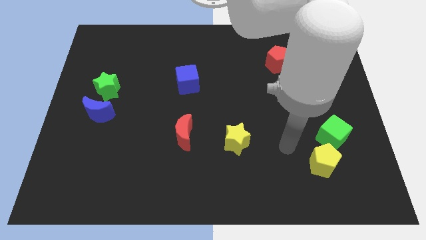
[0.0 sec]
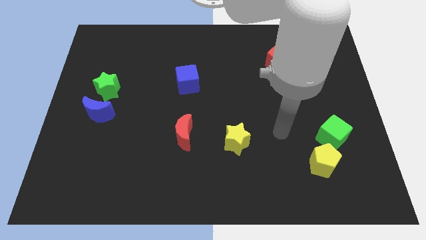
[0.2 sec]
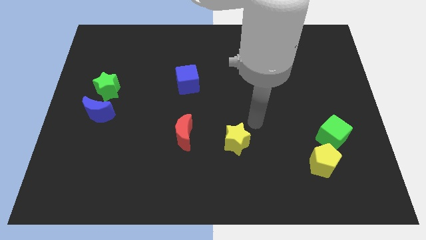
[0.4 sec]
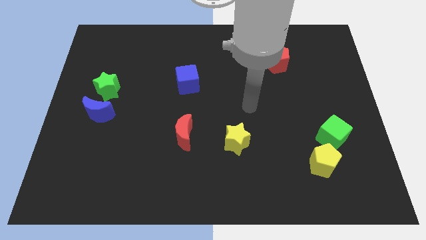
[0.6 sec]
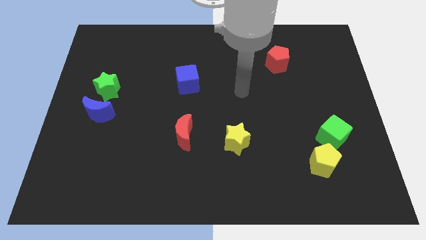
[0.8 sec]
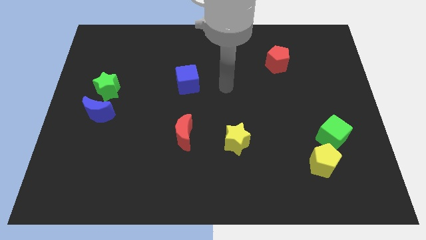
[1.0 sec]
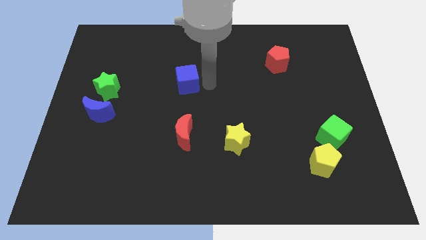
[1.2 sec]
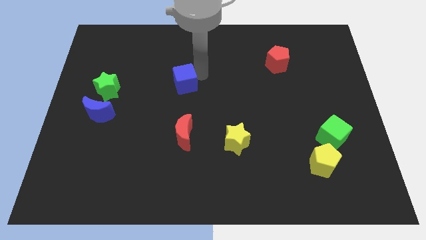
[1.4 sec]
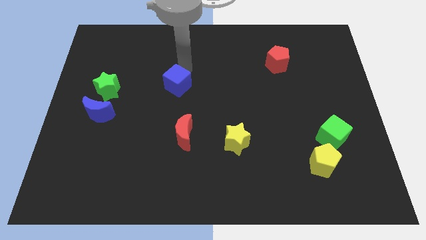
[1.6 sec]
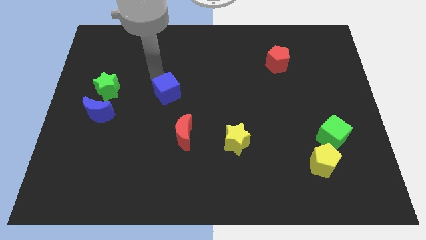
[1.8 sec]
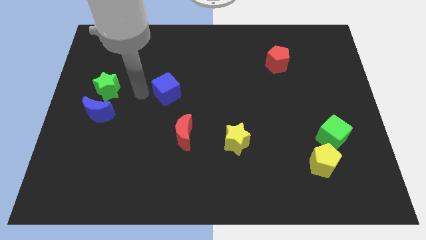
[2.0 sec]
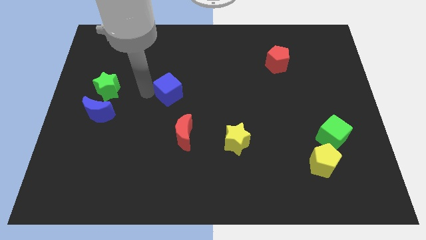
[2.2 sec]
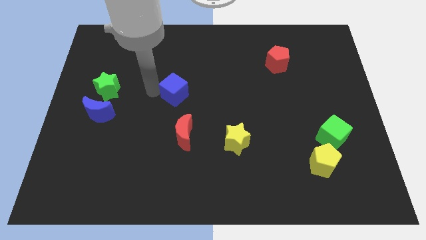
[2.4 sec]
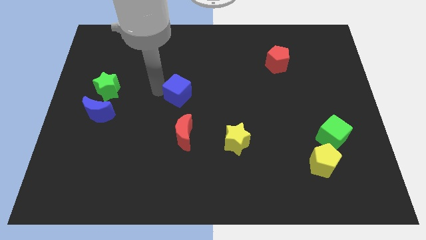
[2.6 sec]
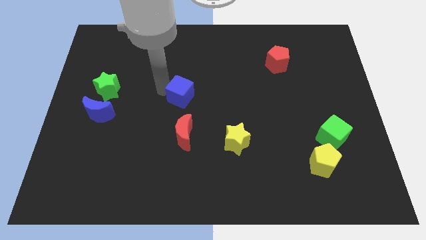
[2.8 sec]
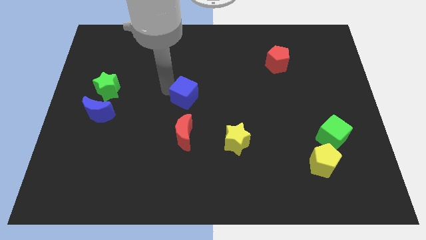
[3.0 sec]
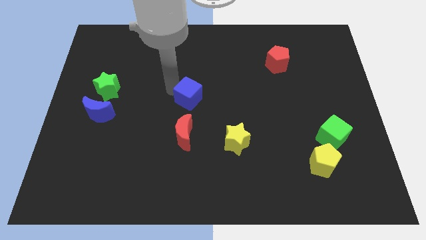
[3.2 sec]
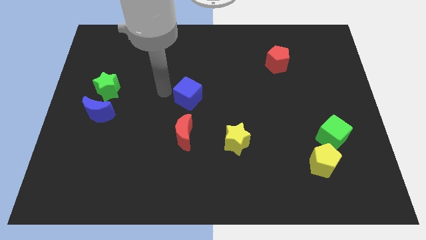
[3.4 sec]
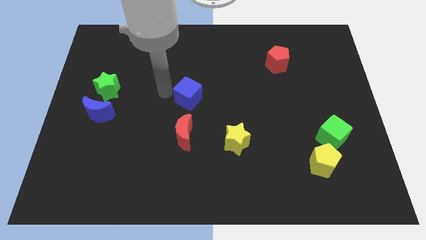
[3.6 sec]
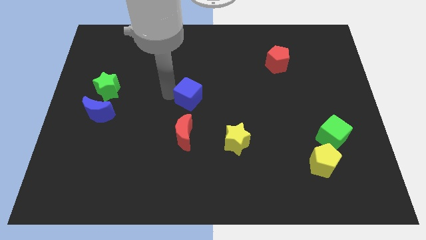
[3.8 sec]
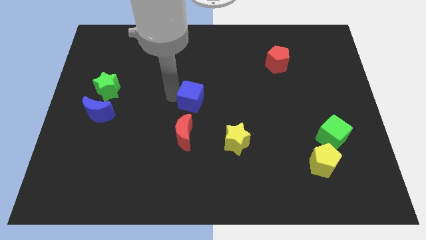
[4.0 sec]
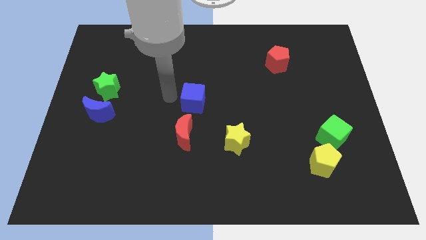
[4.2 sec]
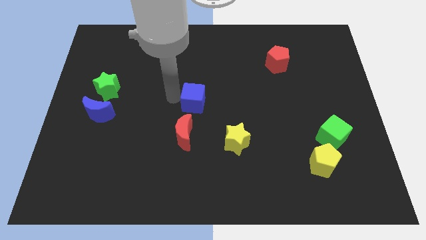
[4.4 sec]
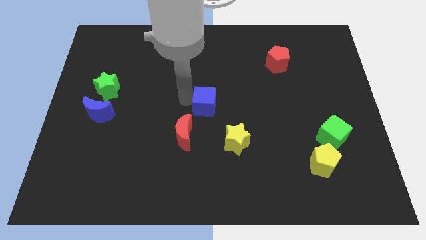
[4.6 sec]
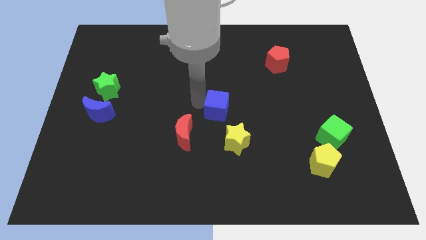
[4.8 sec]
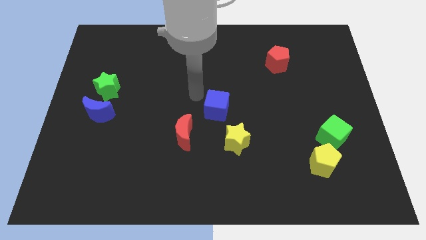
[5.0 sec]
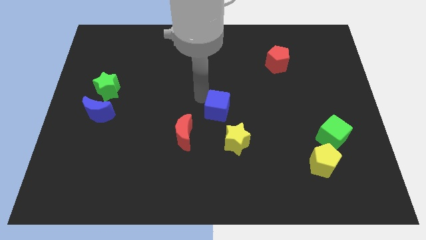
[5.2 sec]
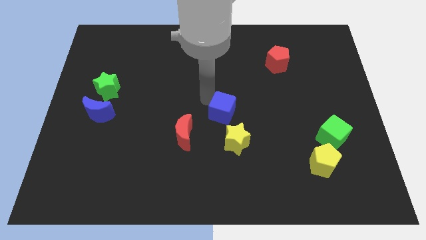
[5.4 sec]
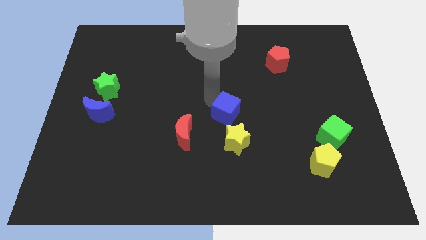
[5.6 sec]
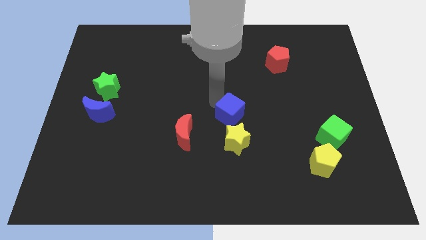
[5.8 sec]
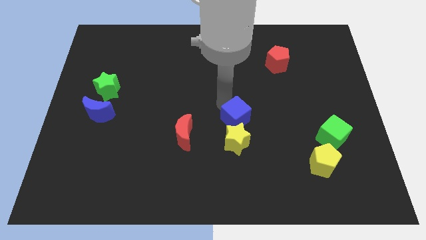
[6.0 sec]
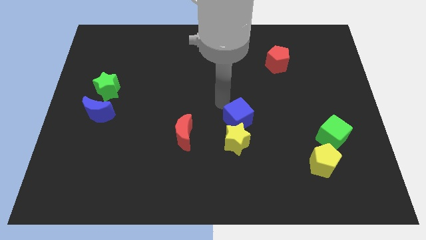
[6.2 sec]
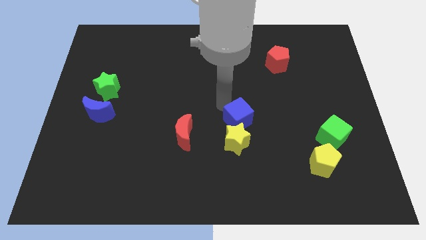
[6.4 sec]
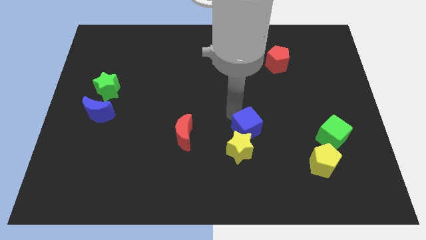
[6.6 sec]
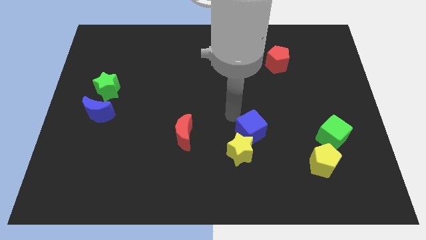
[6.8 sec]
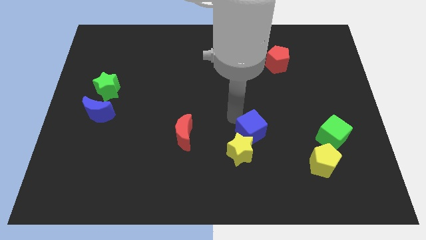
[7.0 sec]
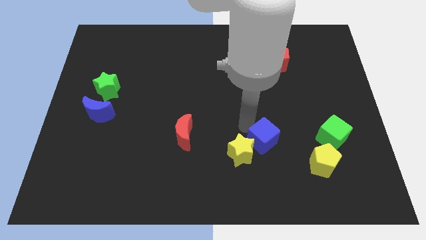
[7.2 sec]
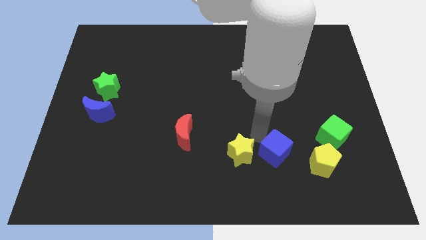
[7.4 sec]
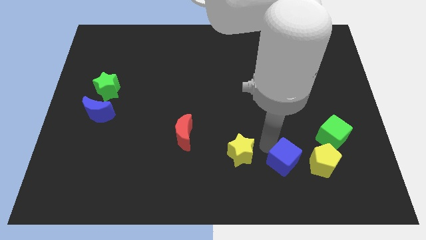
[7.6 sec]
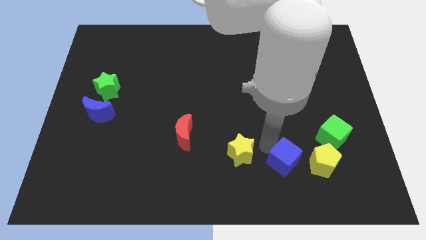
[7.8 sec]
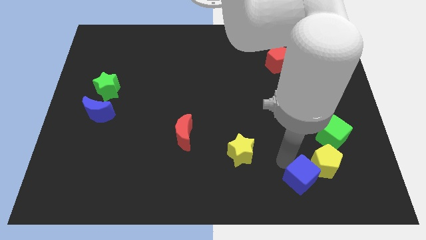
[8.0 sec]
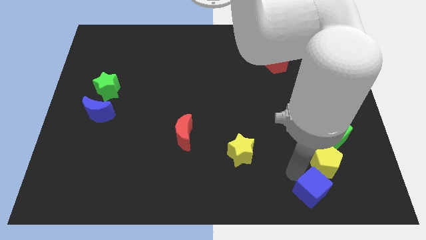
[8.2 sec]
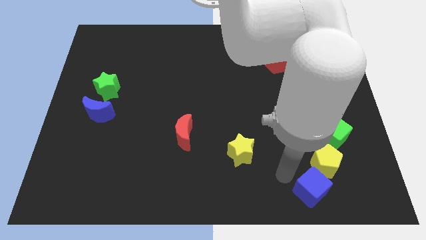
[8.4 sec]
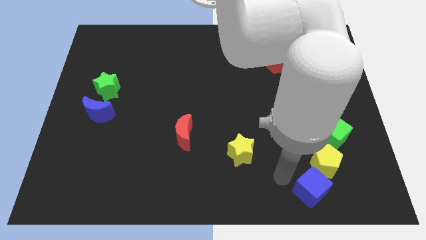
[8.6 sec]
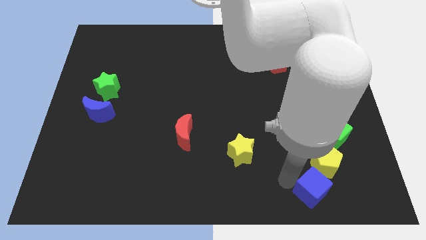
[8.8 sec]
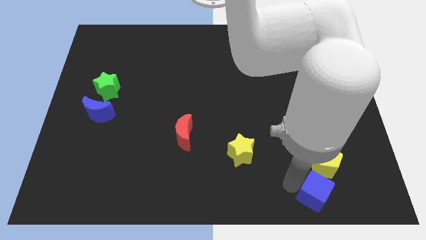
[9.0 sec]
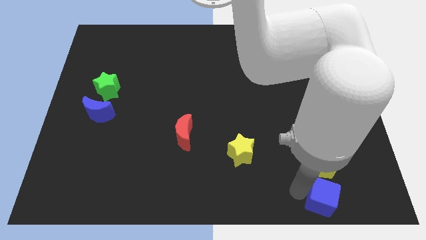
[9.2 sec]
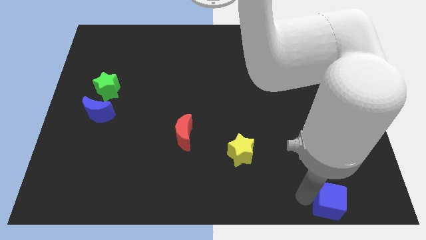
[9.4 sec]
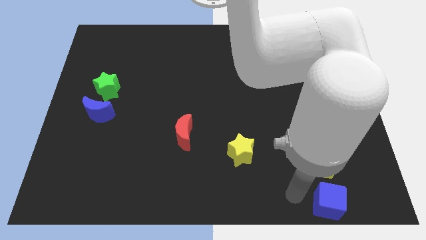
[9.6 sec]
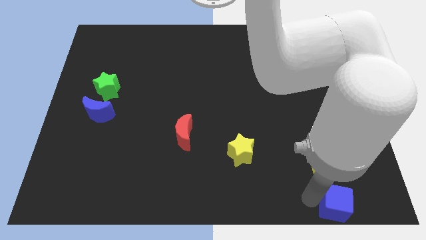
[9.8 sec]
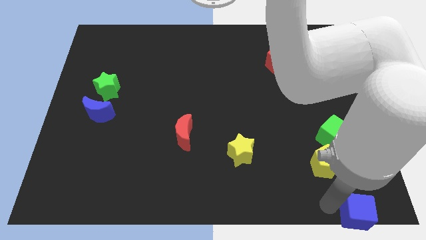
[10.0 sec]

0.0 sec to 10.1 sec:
put the blue cube to the lower right corner

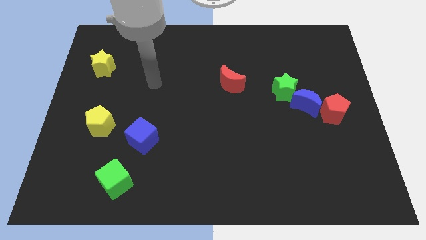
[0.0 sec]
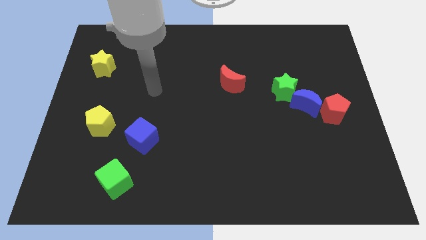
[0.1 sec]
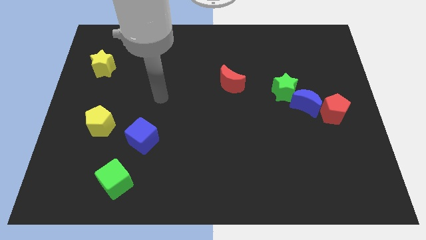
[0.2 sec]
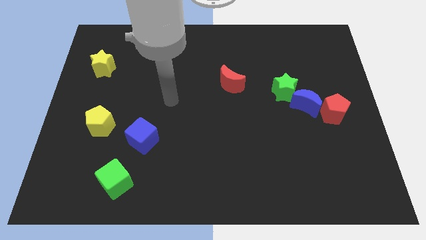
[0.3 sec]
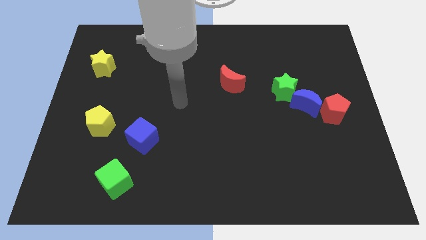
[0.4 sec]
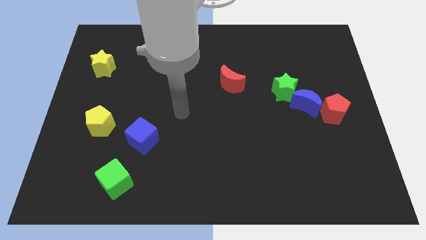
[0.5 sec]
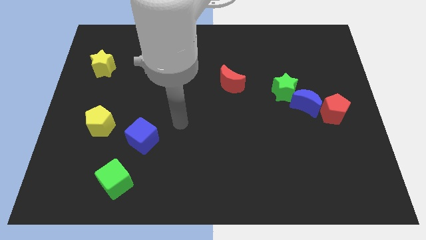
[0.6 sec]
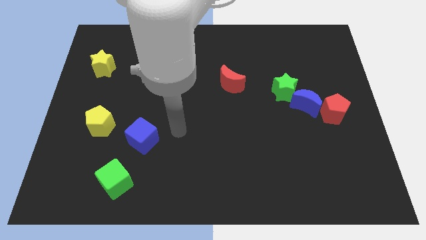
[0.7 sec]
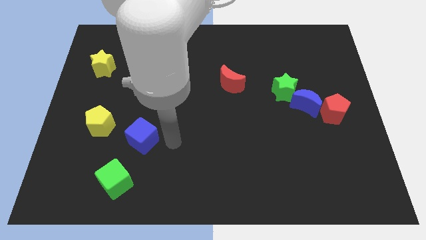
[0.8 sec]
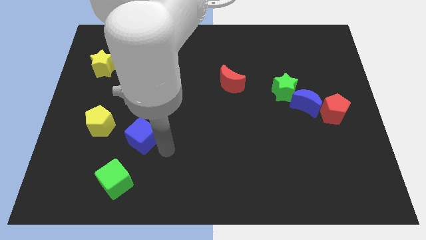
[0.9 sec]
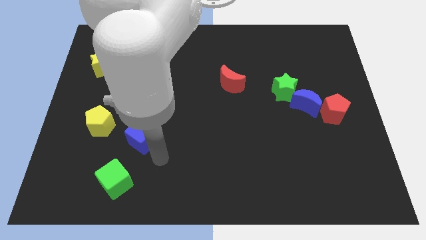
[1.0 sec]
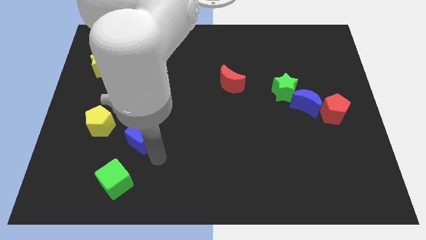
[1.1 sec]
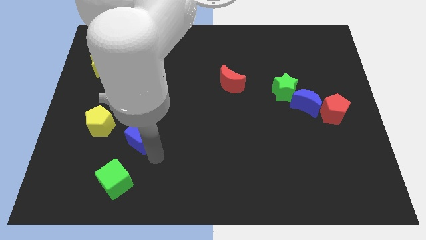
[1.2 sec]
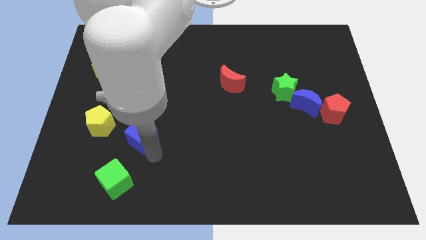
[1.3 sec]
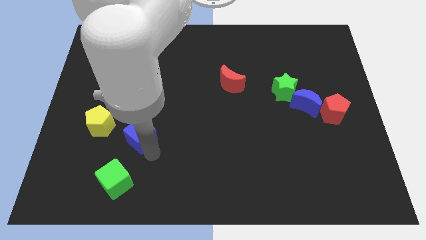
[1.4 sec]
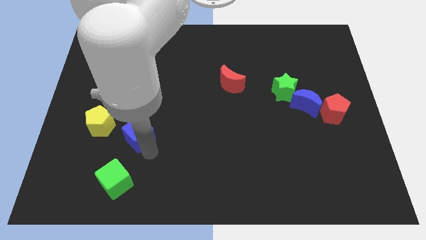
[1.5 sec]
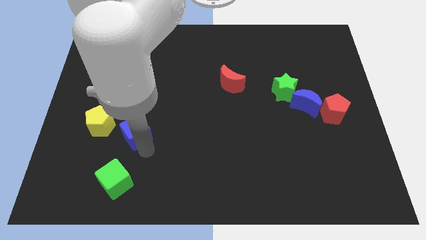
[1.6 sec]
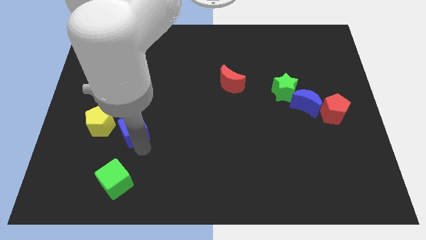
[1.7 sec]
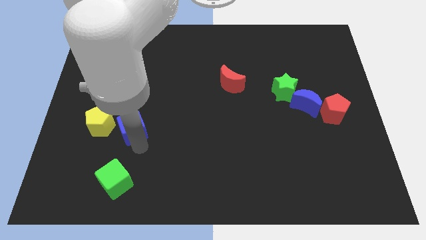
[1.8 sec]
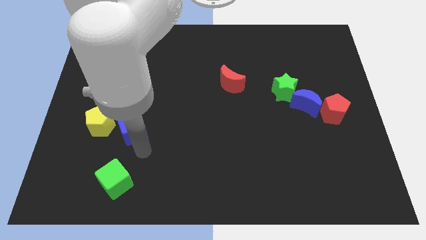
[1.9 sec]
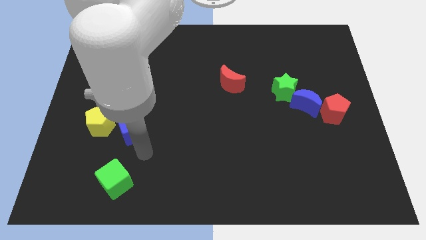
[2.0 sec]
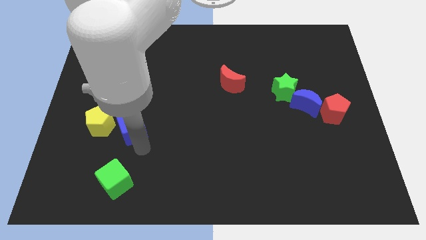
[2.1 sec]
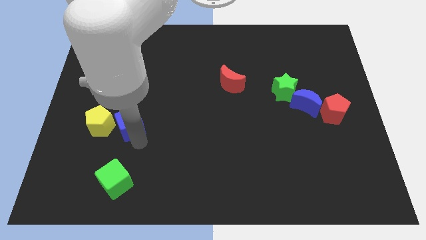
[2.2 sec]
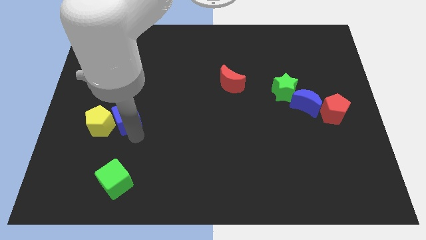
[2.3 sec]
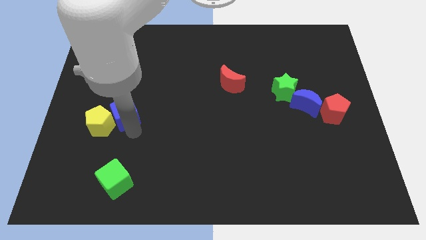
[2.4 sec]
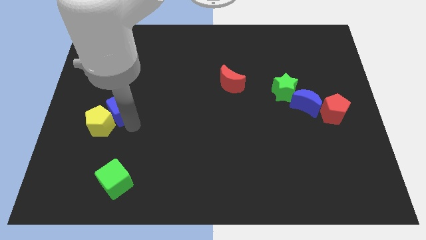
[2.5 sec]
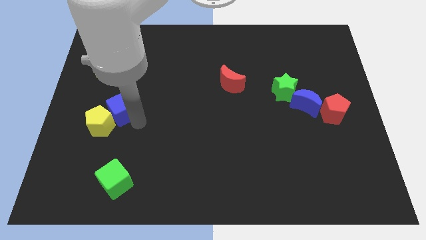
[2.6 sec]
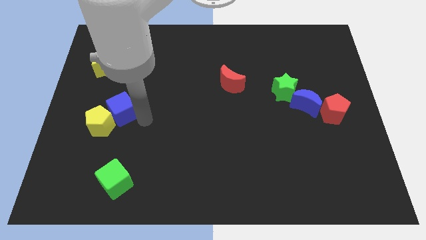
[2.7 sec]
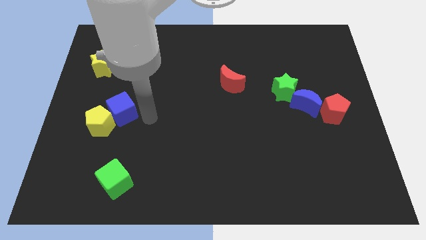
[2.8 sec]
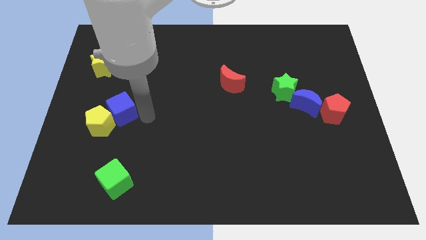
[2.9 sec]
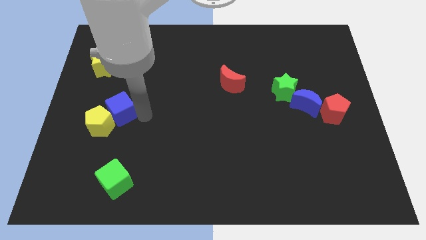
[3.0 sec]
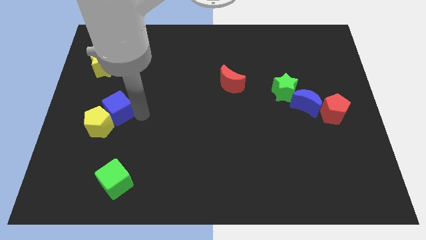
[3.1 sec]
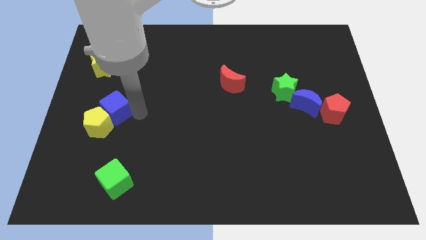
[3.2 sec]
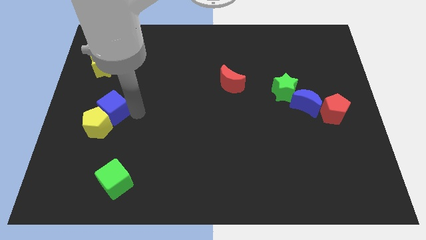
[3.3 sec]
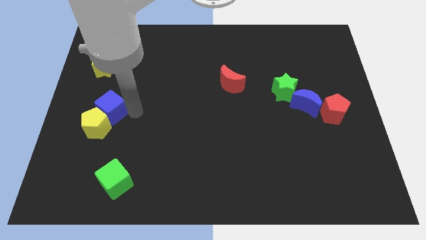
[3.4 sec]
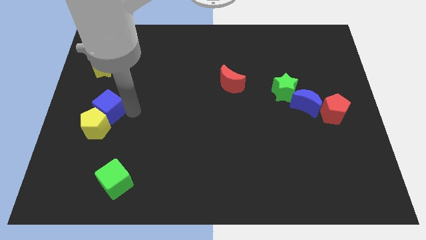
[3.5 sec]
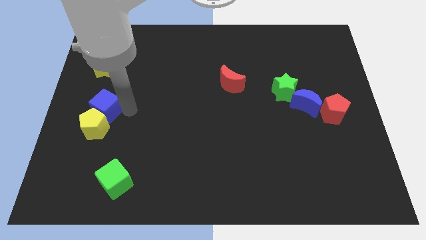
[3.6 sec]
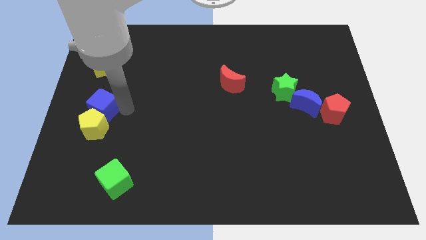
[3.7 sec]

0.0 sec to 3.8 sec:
put the blue cube to the left side
